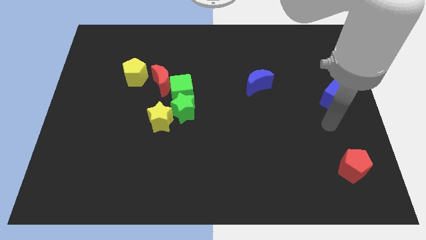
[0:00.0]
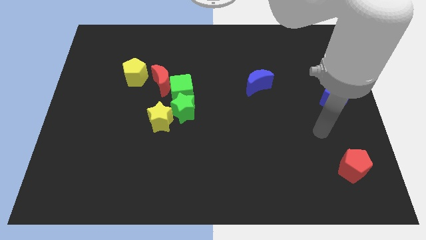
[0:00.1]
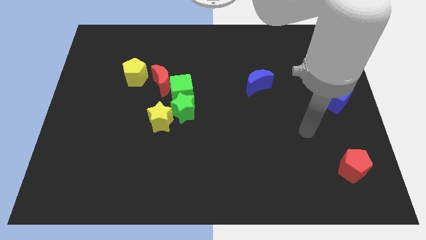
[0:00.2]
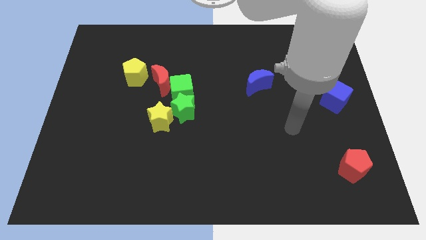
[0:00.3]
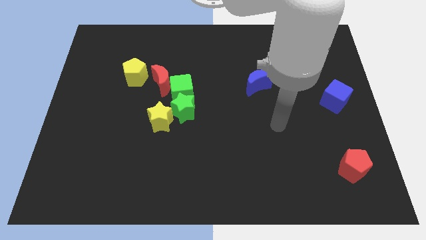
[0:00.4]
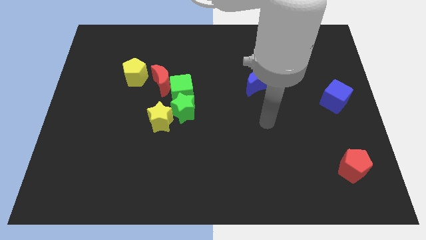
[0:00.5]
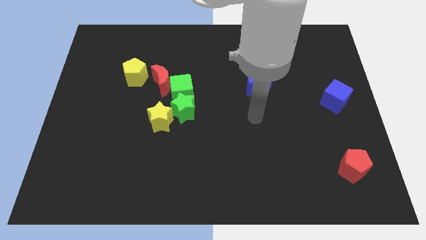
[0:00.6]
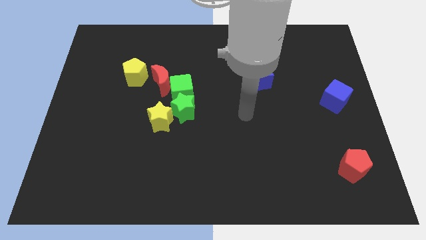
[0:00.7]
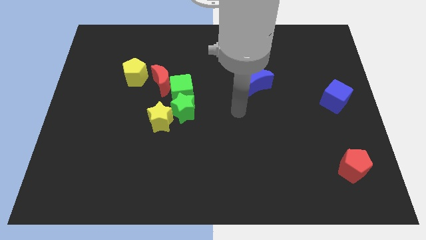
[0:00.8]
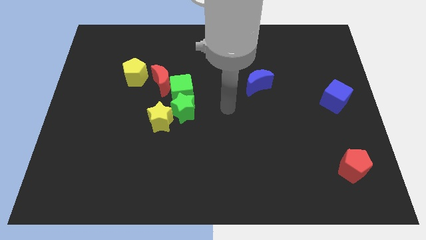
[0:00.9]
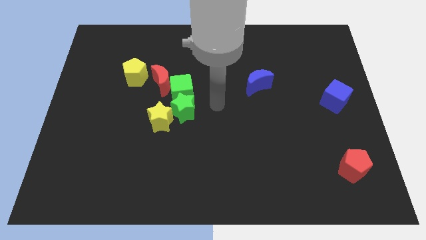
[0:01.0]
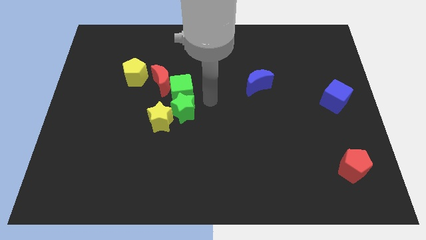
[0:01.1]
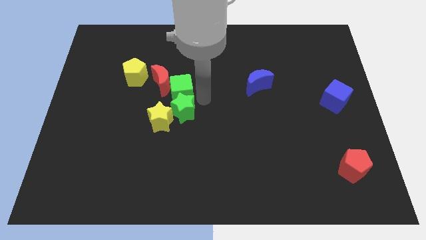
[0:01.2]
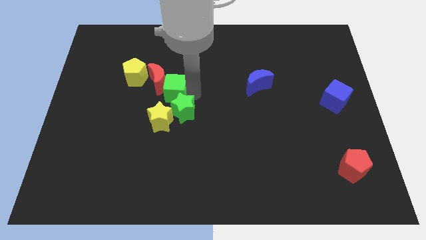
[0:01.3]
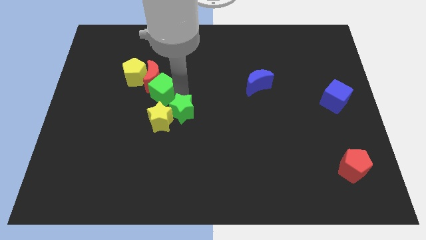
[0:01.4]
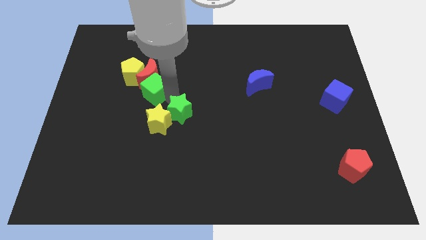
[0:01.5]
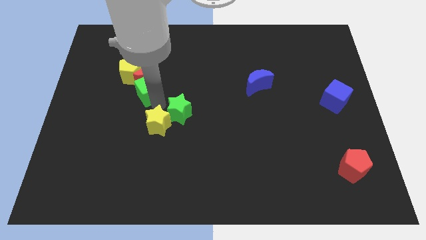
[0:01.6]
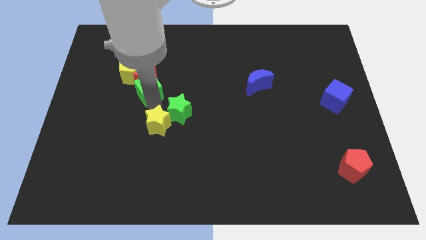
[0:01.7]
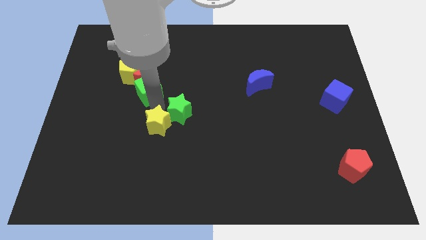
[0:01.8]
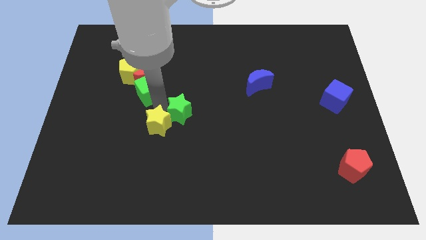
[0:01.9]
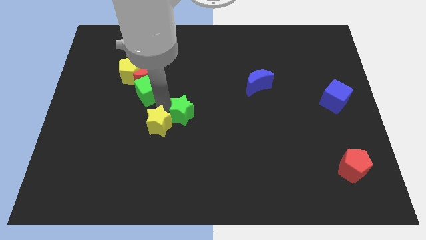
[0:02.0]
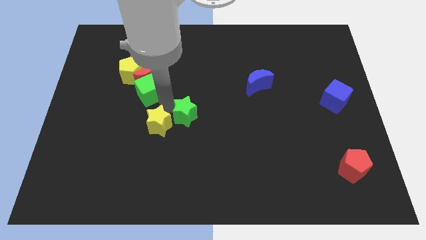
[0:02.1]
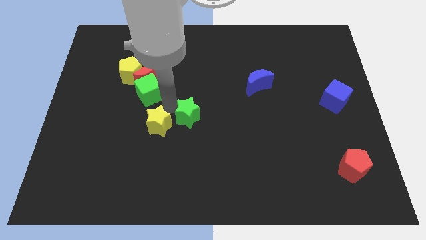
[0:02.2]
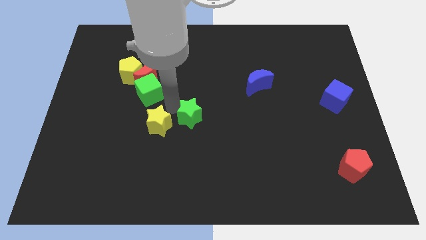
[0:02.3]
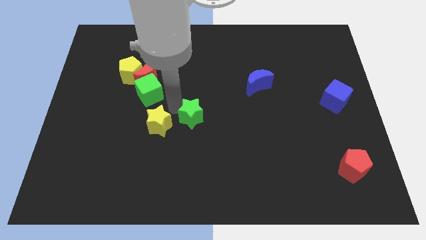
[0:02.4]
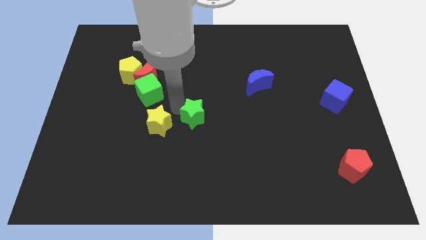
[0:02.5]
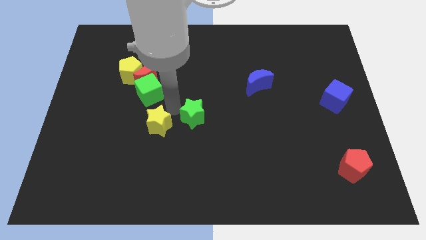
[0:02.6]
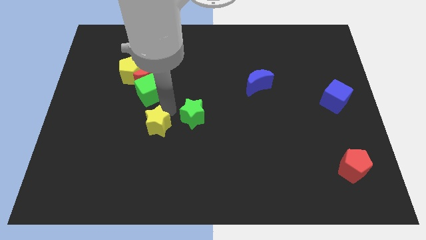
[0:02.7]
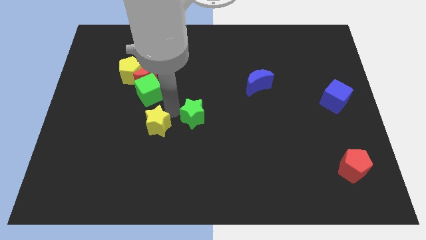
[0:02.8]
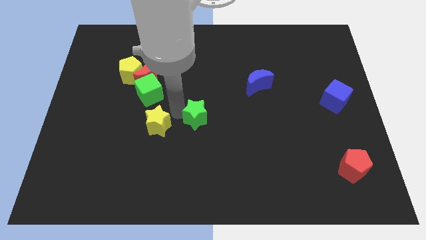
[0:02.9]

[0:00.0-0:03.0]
move the green star away from the yellow star and green cube

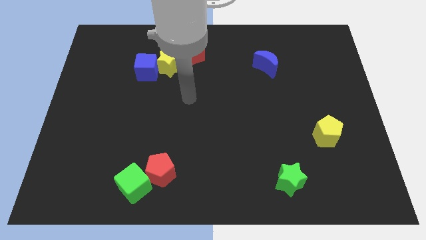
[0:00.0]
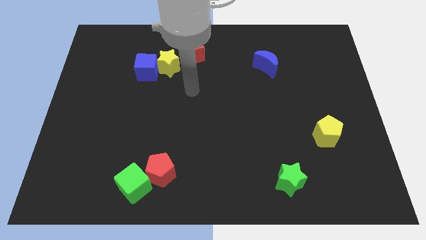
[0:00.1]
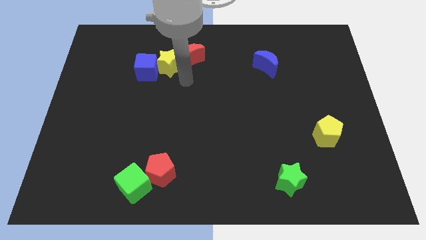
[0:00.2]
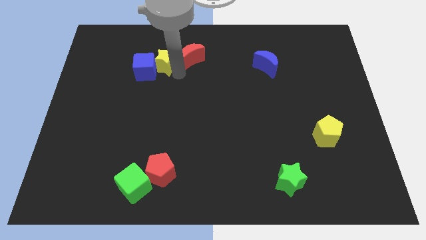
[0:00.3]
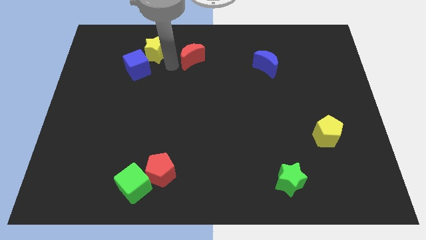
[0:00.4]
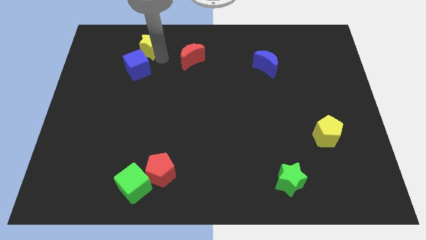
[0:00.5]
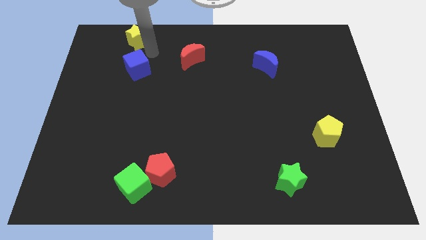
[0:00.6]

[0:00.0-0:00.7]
separate the blue cube from the yellow star

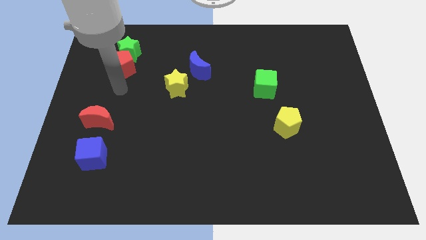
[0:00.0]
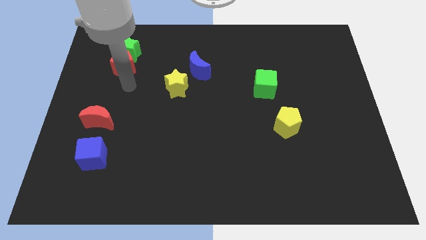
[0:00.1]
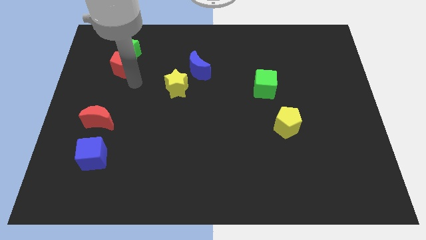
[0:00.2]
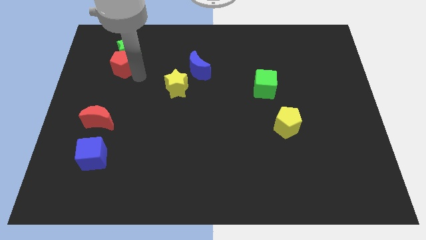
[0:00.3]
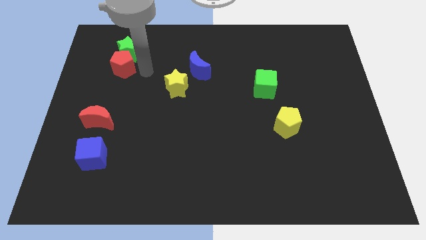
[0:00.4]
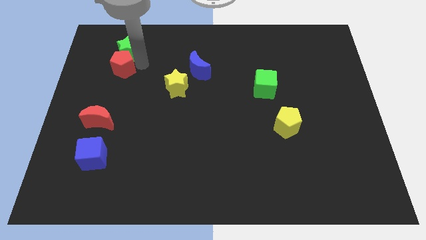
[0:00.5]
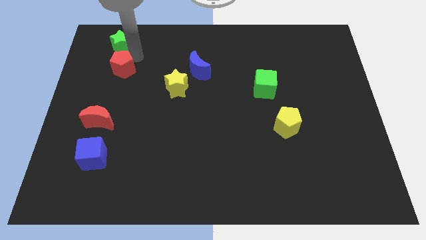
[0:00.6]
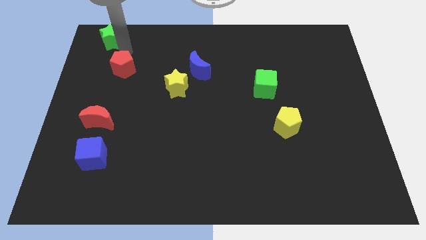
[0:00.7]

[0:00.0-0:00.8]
separate the red pentagon from the green star

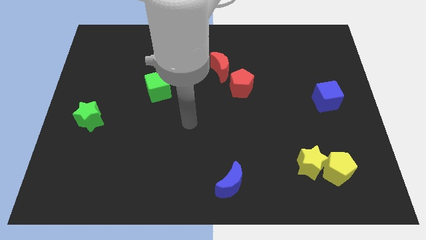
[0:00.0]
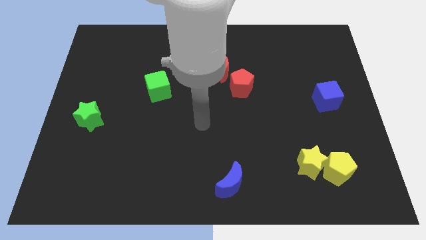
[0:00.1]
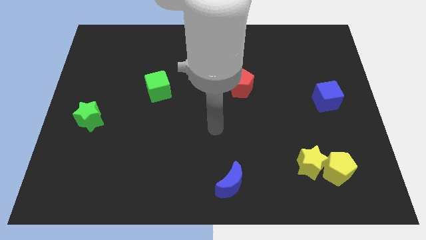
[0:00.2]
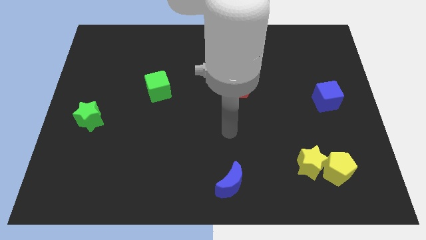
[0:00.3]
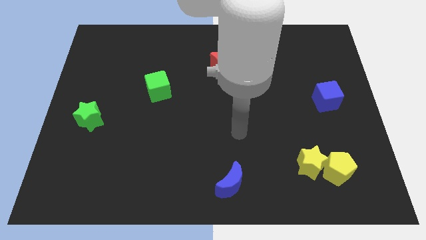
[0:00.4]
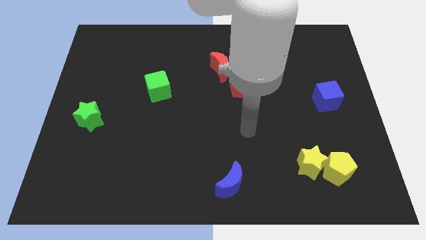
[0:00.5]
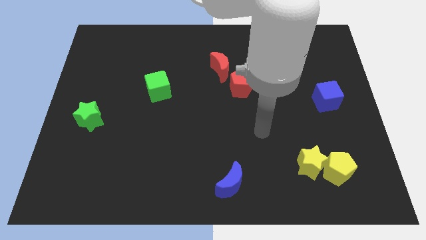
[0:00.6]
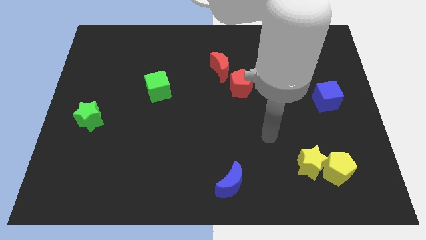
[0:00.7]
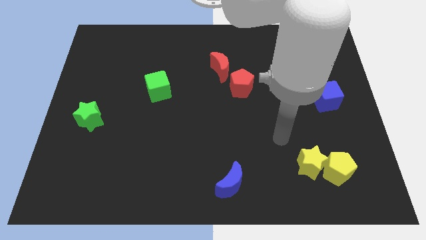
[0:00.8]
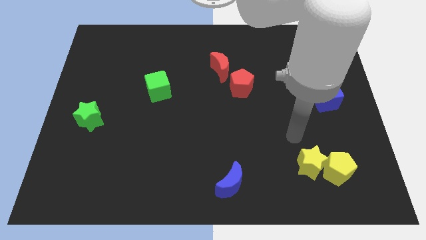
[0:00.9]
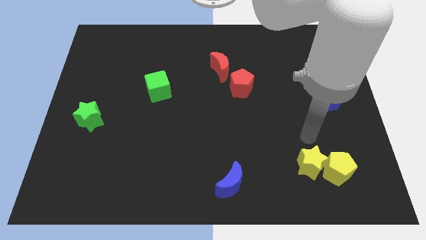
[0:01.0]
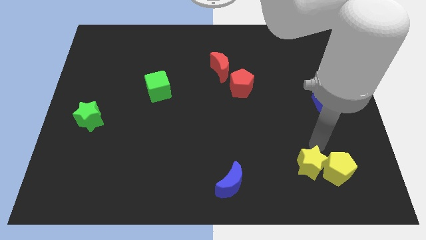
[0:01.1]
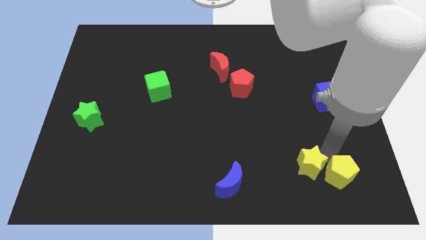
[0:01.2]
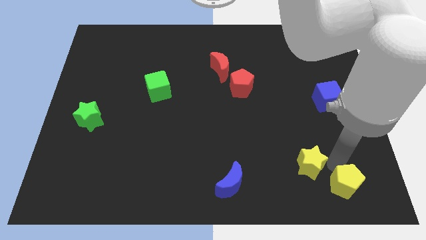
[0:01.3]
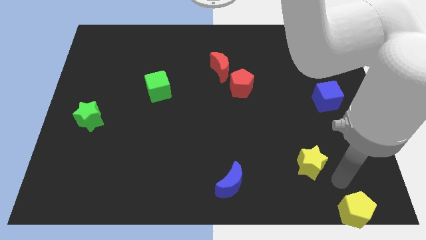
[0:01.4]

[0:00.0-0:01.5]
move the yellow star away from the yellow pentagon

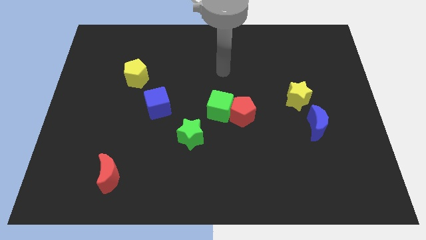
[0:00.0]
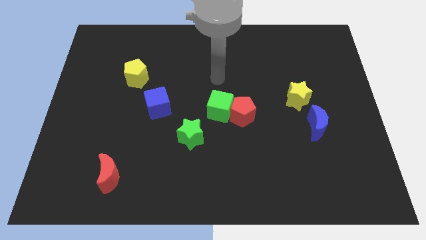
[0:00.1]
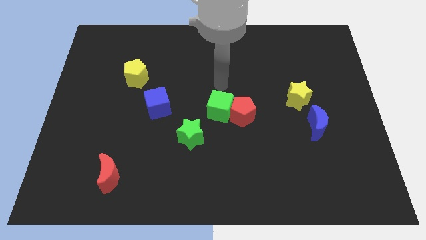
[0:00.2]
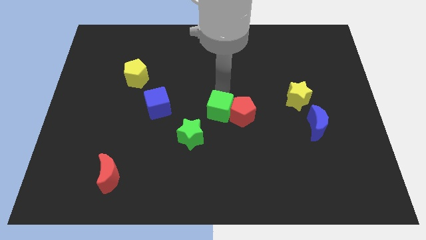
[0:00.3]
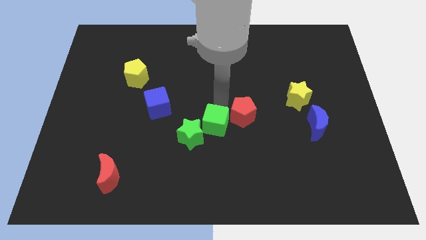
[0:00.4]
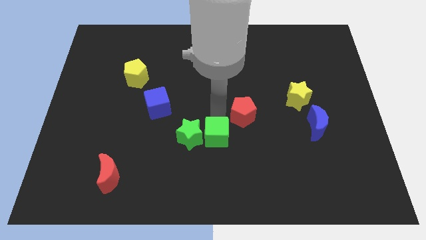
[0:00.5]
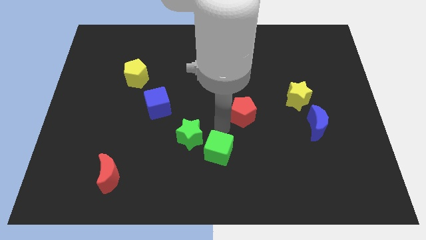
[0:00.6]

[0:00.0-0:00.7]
pull the red pentagon apart from the green cube

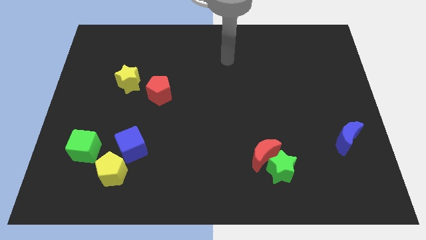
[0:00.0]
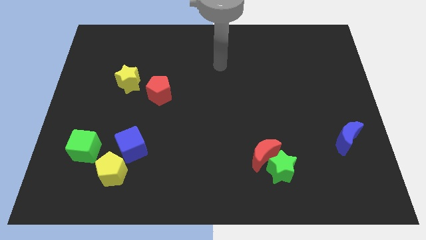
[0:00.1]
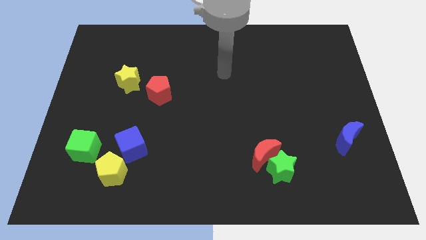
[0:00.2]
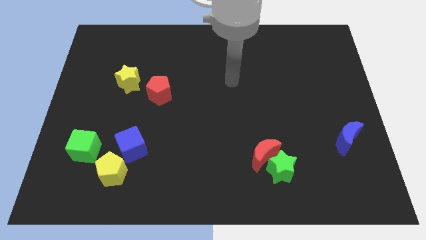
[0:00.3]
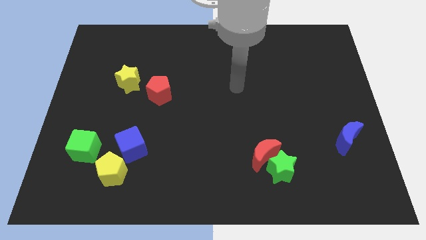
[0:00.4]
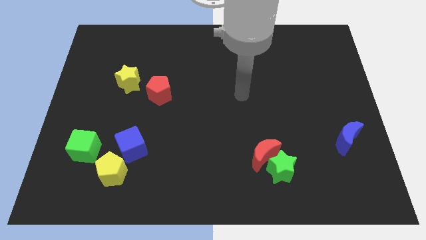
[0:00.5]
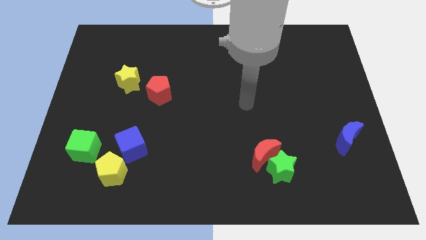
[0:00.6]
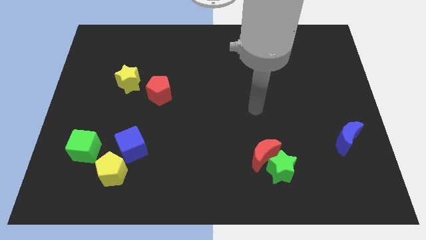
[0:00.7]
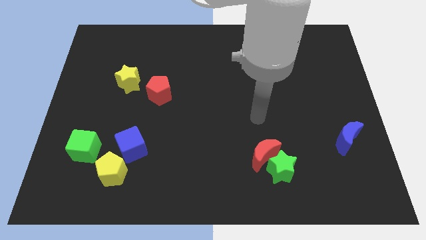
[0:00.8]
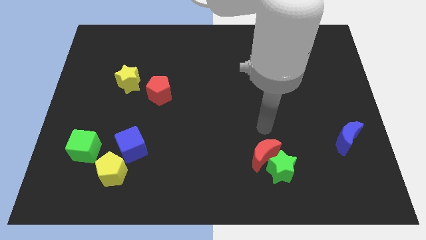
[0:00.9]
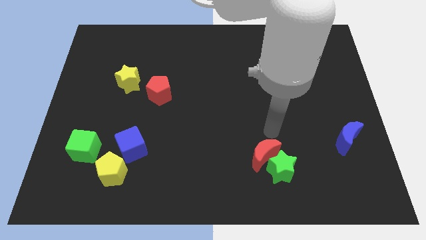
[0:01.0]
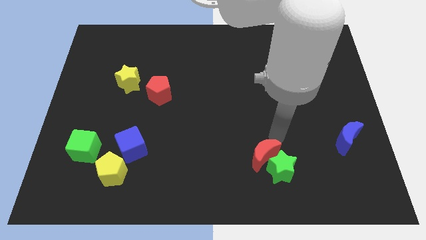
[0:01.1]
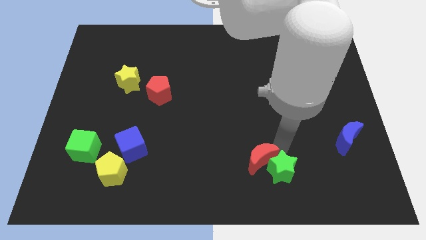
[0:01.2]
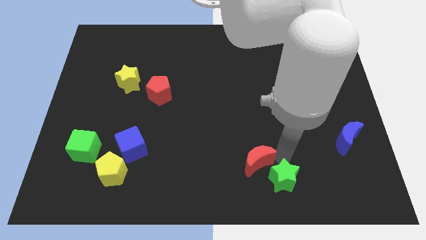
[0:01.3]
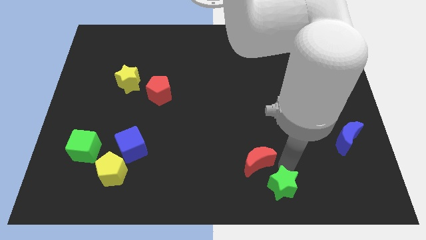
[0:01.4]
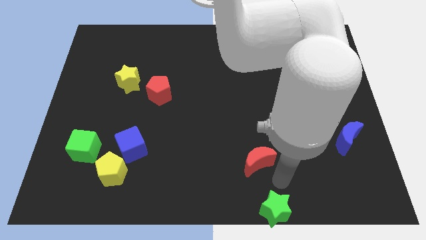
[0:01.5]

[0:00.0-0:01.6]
separate the red moon from the green star

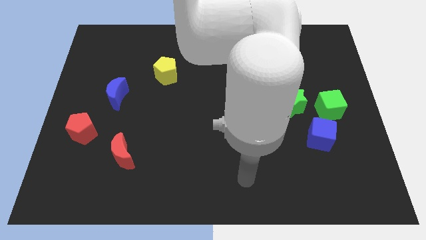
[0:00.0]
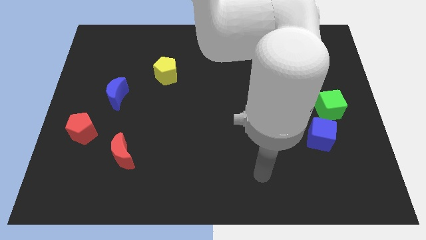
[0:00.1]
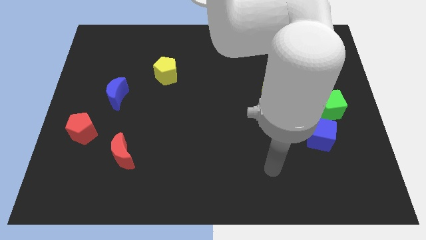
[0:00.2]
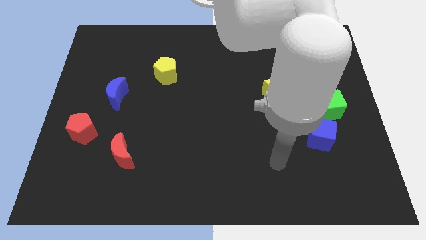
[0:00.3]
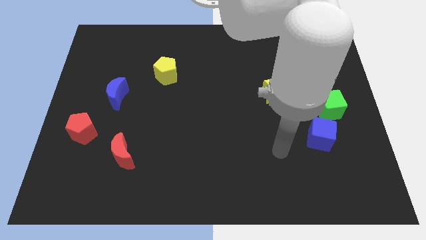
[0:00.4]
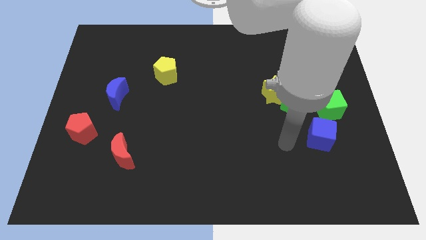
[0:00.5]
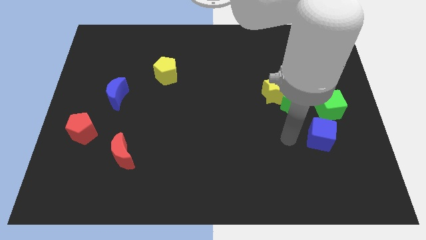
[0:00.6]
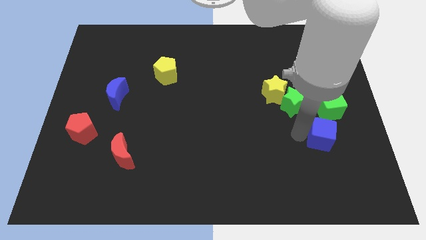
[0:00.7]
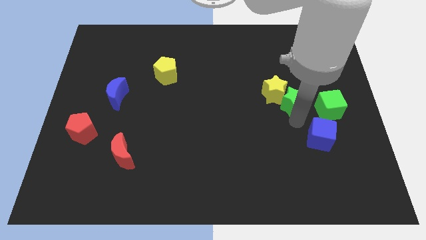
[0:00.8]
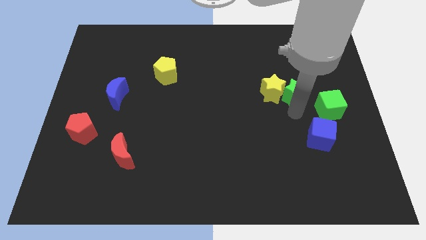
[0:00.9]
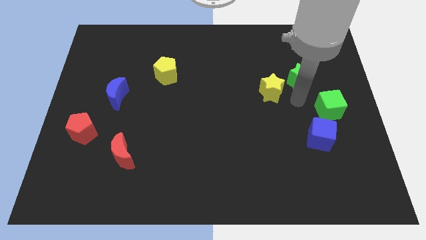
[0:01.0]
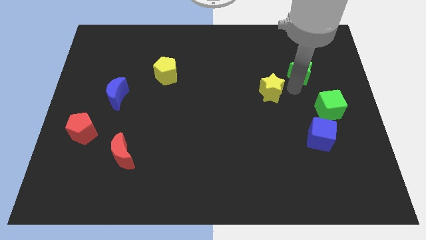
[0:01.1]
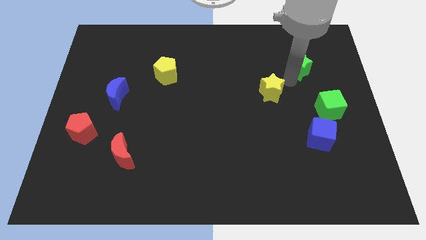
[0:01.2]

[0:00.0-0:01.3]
separate the yellow star from the green star
